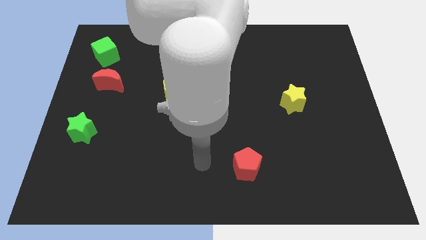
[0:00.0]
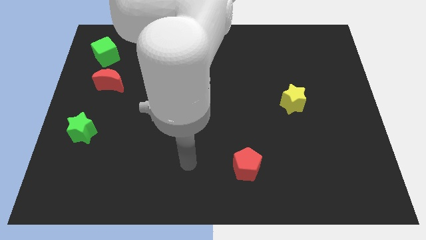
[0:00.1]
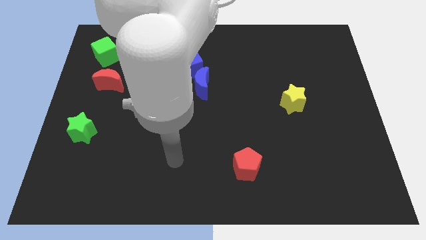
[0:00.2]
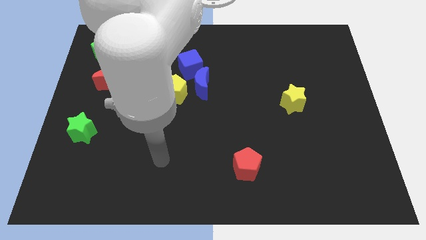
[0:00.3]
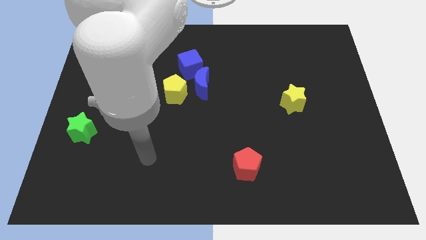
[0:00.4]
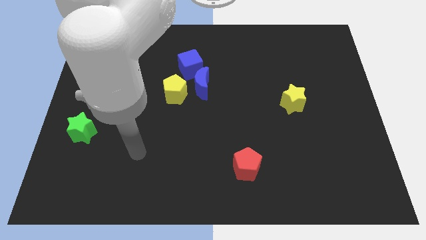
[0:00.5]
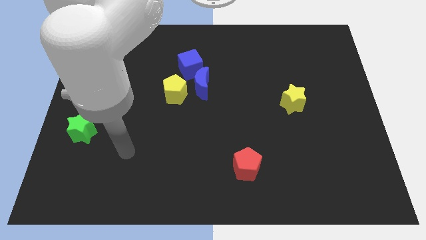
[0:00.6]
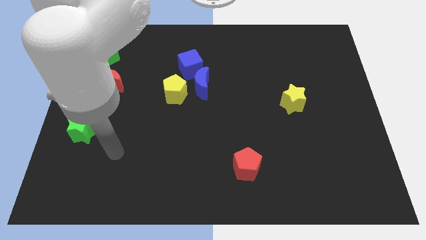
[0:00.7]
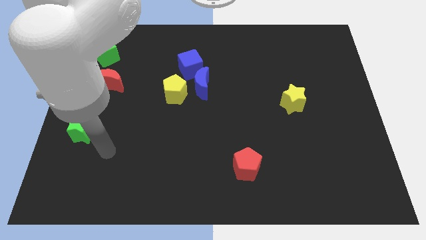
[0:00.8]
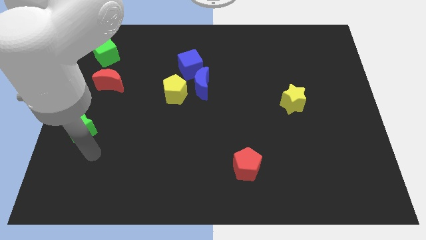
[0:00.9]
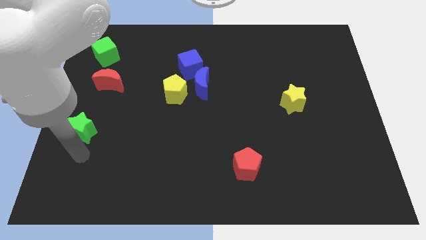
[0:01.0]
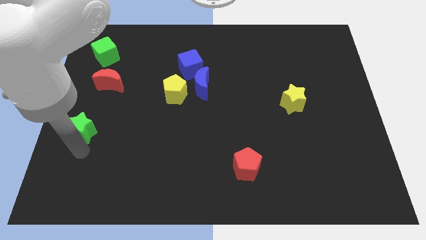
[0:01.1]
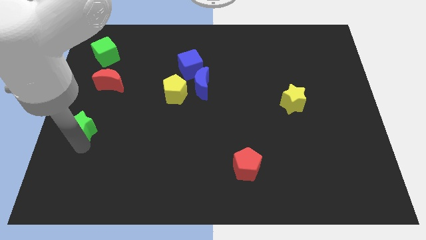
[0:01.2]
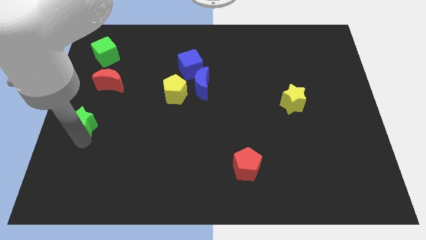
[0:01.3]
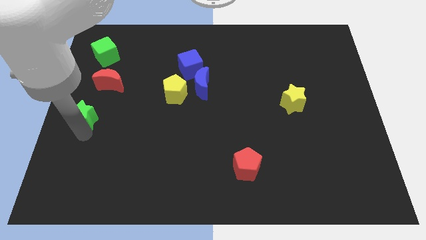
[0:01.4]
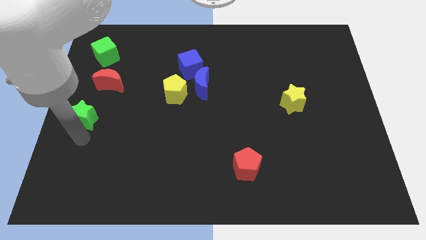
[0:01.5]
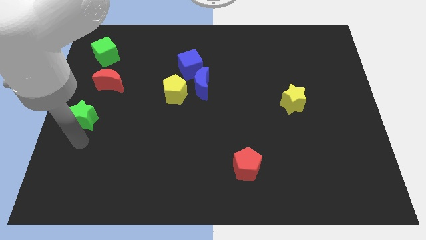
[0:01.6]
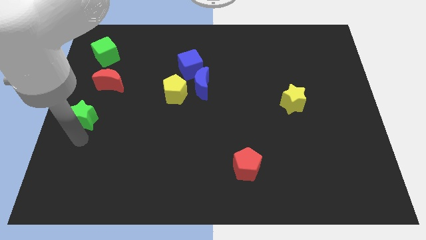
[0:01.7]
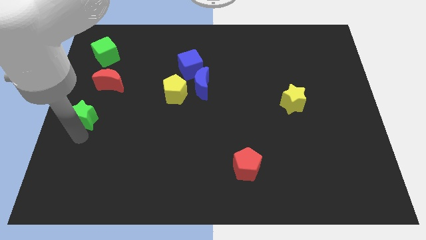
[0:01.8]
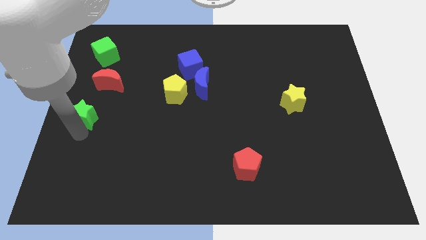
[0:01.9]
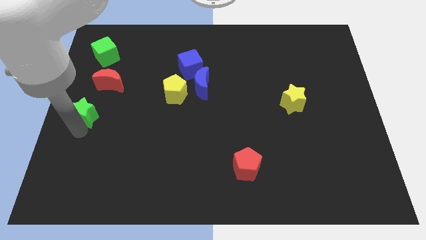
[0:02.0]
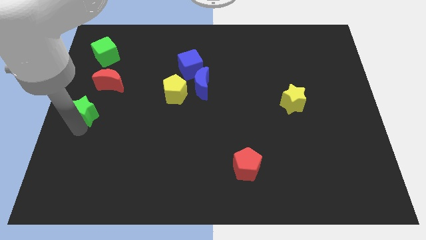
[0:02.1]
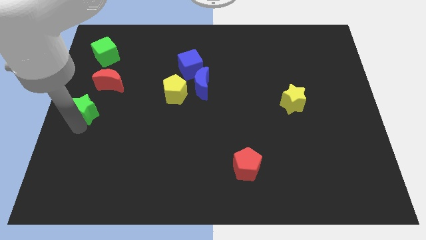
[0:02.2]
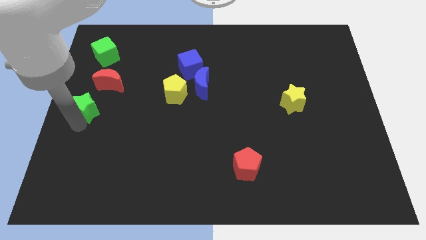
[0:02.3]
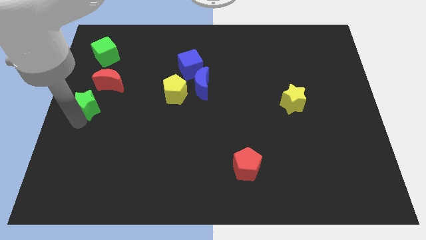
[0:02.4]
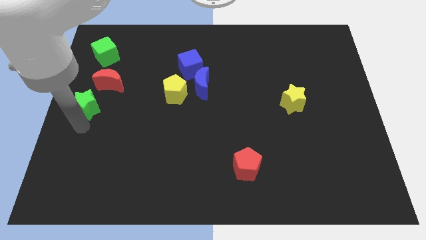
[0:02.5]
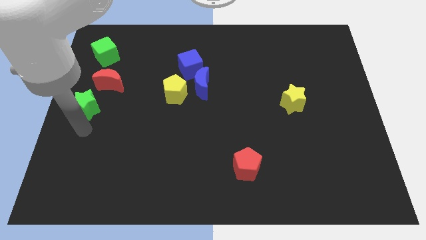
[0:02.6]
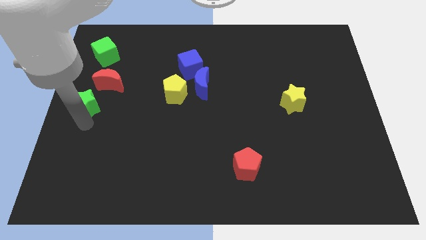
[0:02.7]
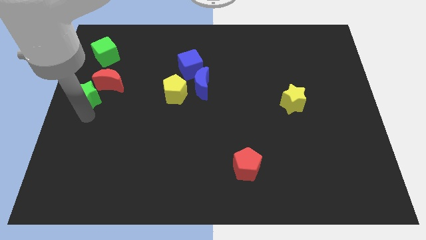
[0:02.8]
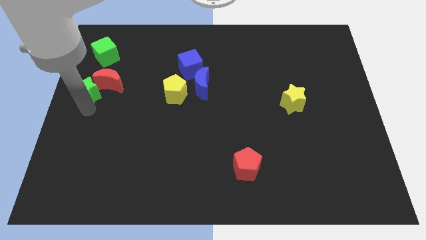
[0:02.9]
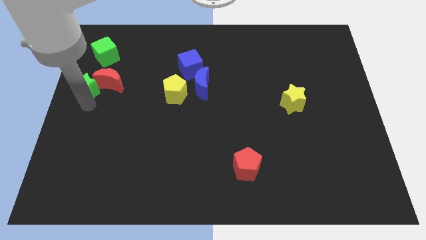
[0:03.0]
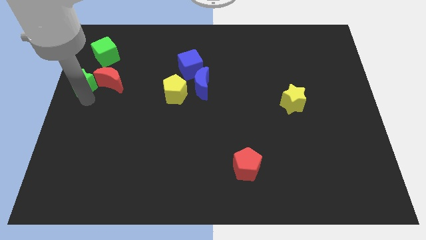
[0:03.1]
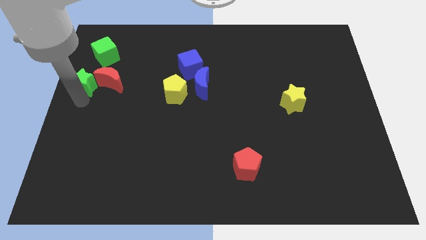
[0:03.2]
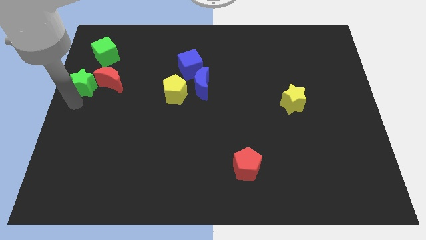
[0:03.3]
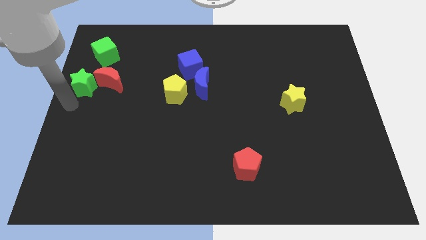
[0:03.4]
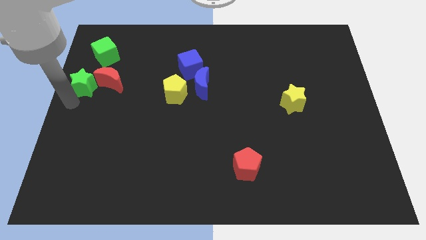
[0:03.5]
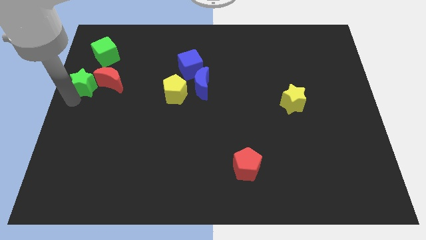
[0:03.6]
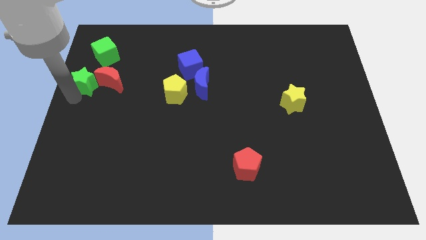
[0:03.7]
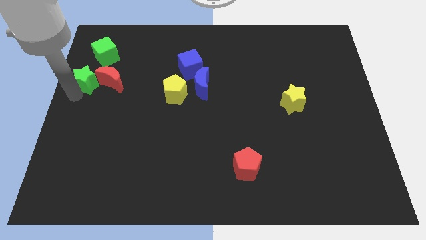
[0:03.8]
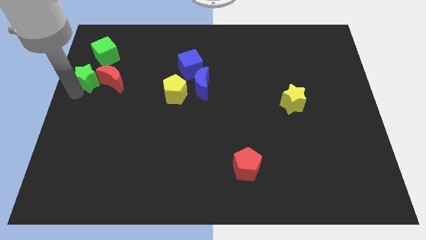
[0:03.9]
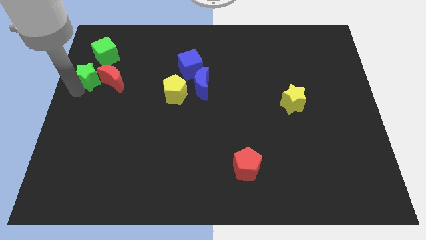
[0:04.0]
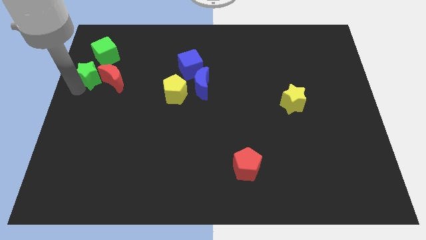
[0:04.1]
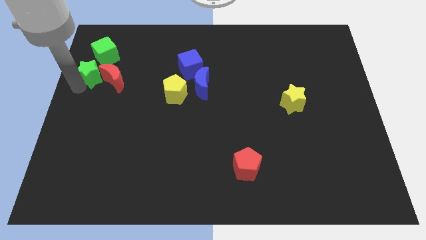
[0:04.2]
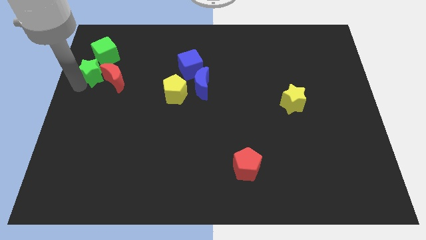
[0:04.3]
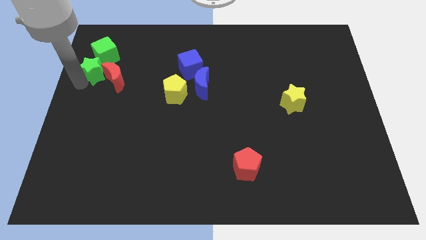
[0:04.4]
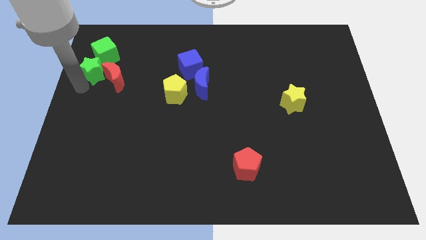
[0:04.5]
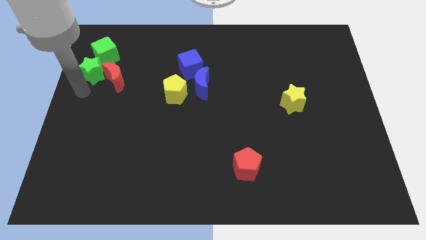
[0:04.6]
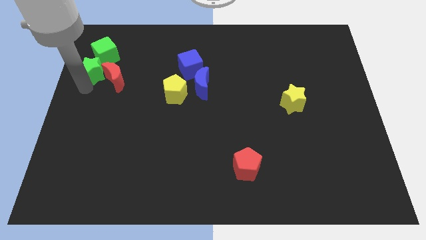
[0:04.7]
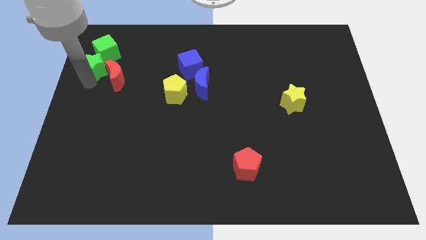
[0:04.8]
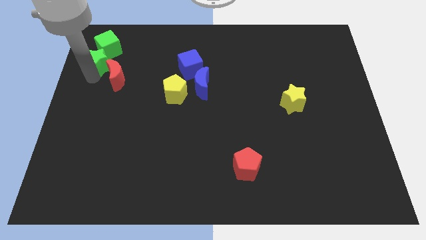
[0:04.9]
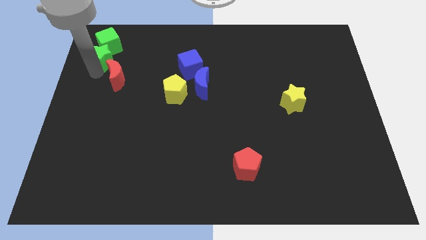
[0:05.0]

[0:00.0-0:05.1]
put the green star towards the green cube

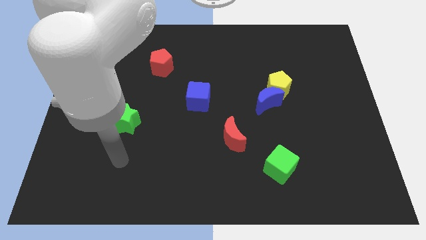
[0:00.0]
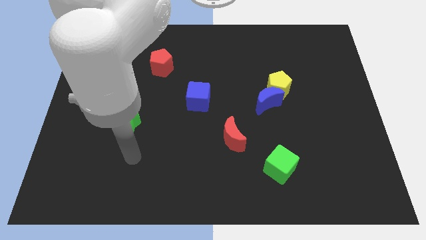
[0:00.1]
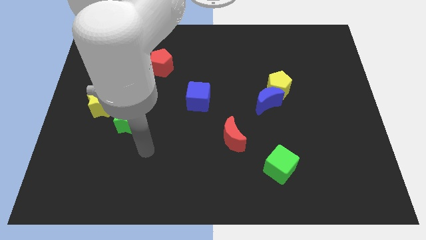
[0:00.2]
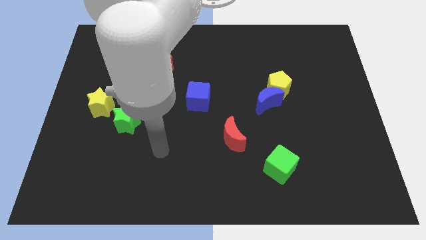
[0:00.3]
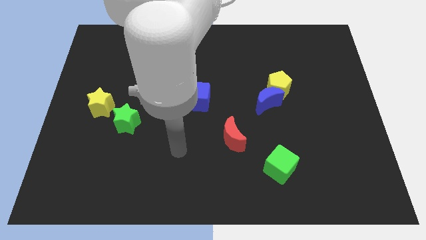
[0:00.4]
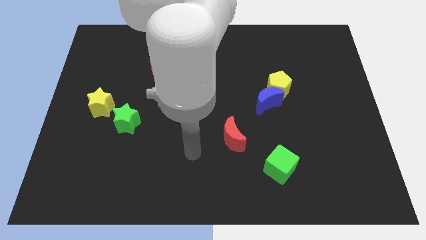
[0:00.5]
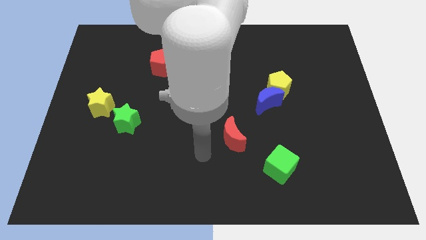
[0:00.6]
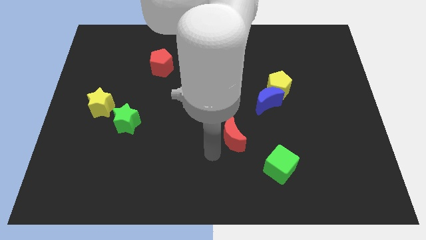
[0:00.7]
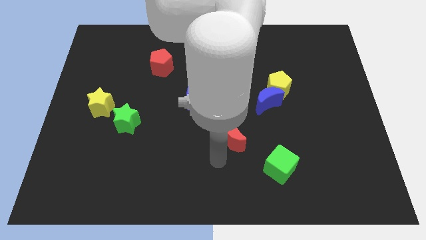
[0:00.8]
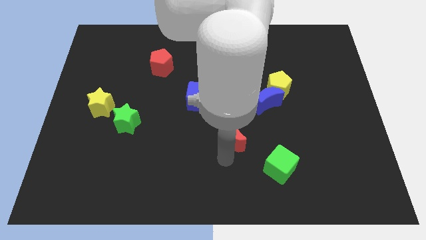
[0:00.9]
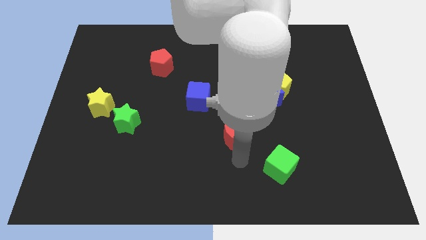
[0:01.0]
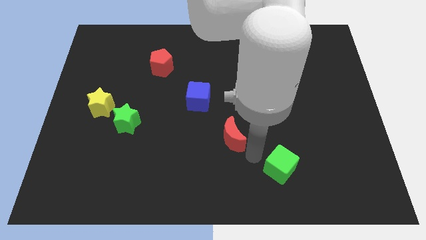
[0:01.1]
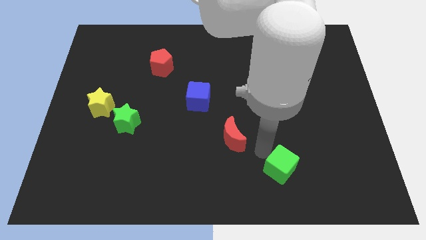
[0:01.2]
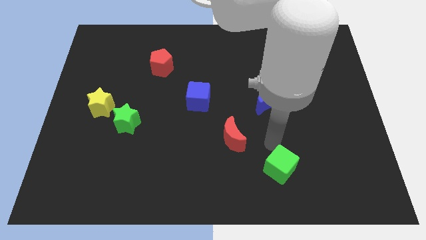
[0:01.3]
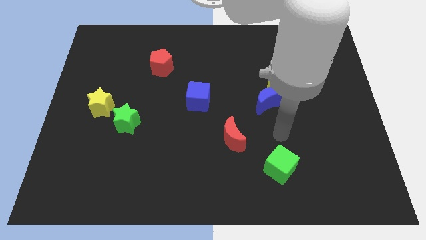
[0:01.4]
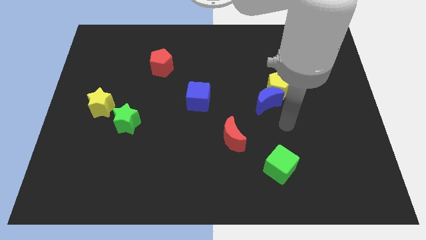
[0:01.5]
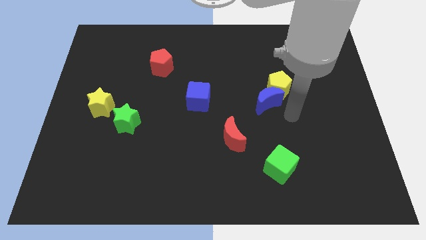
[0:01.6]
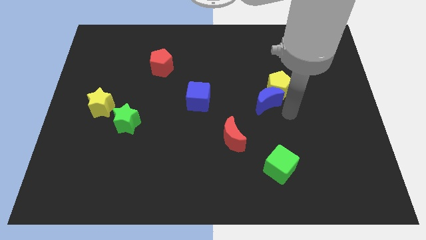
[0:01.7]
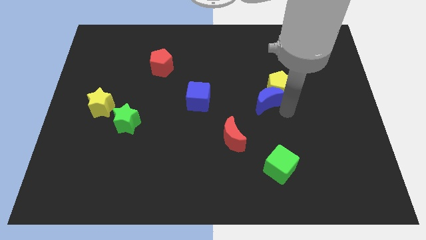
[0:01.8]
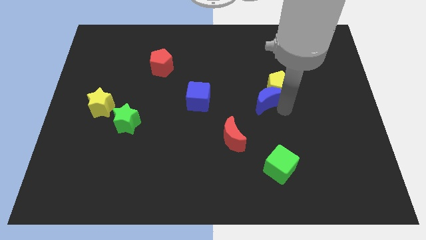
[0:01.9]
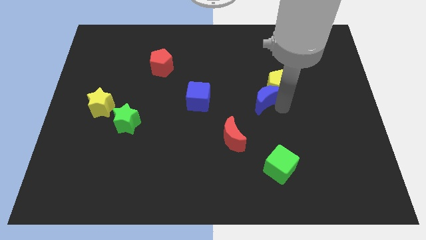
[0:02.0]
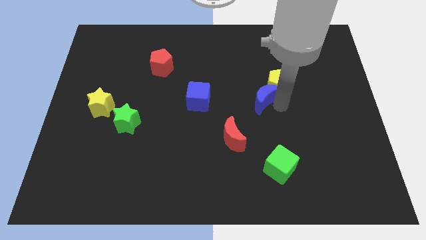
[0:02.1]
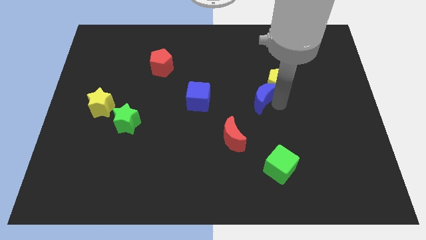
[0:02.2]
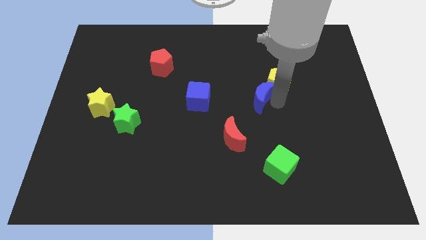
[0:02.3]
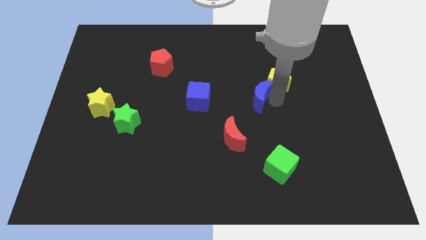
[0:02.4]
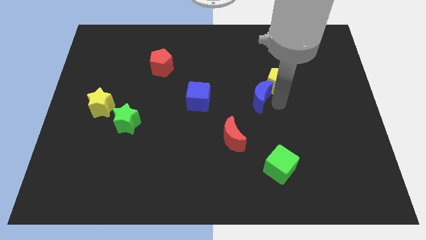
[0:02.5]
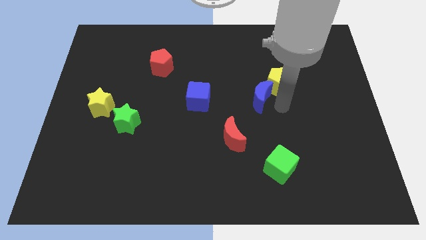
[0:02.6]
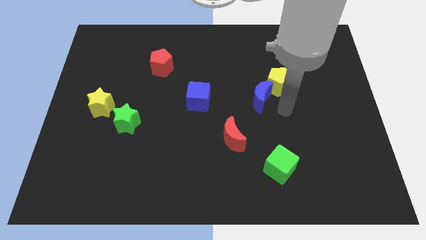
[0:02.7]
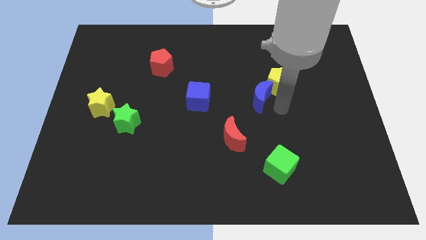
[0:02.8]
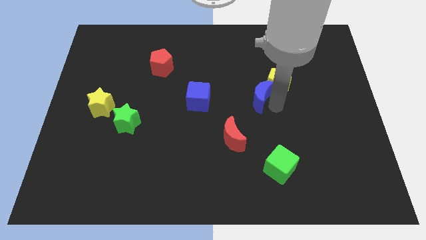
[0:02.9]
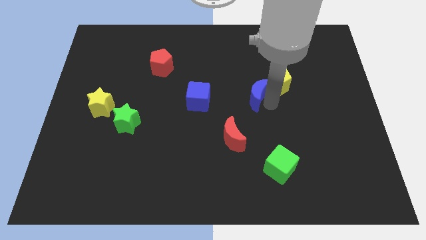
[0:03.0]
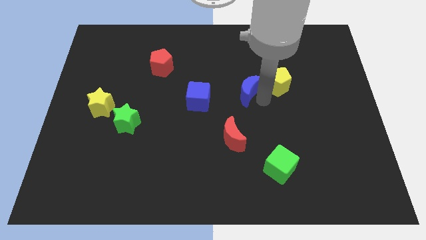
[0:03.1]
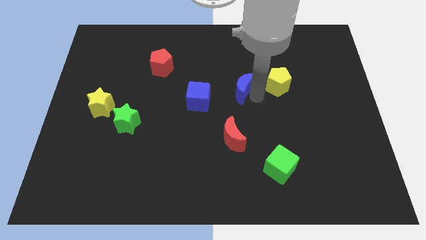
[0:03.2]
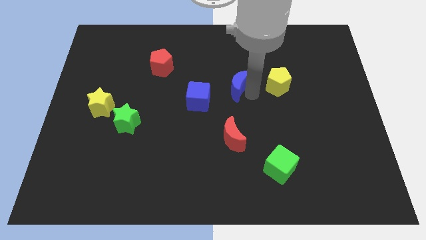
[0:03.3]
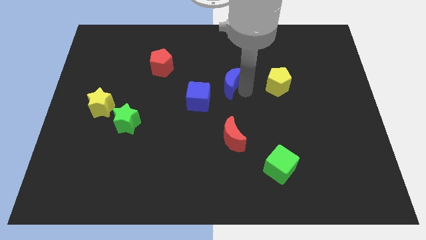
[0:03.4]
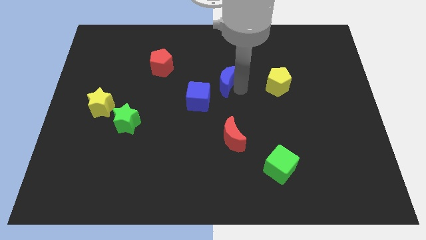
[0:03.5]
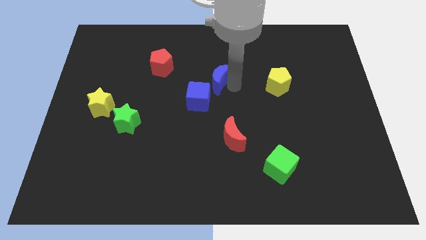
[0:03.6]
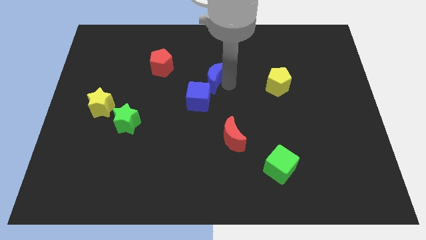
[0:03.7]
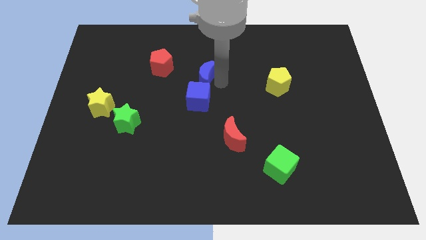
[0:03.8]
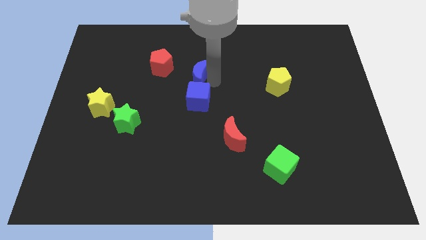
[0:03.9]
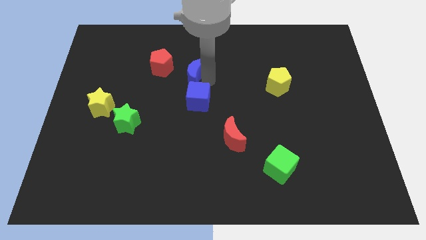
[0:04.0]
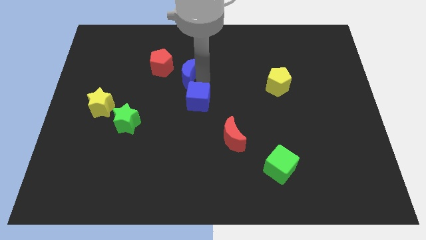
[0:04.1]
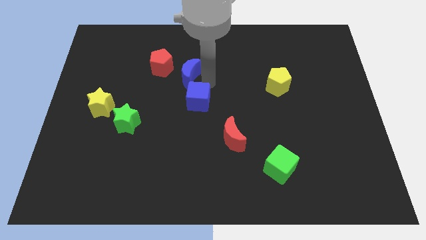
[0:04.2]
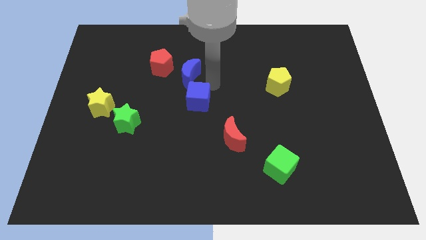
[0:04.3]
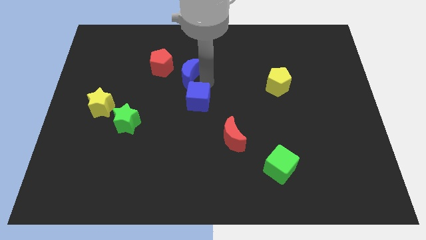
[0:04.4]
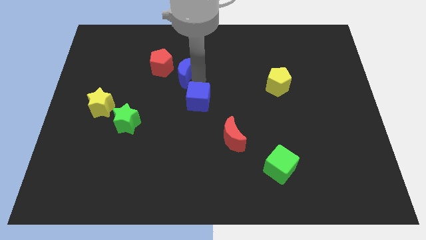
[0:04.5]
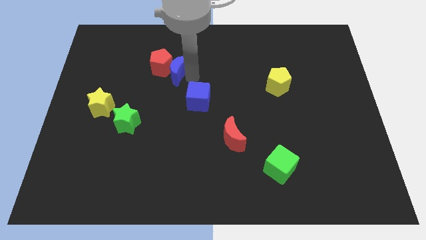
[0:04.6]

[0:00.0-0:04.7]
put the blue moon towards the red pentagon
